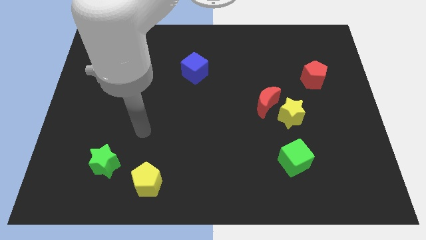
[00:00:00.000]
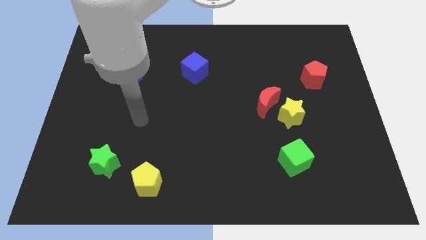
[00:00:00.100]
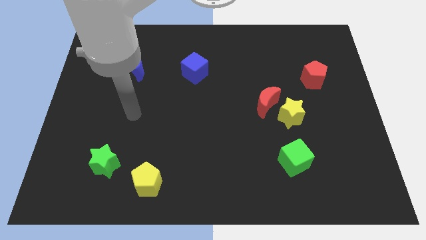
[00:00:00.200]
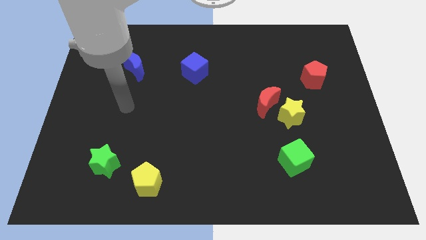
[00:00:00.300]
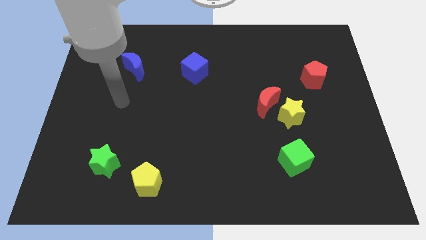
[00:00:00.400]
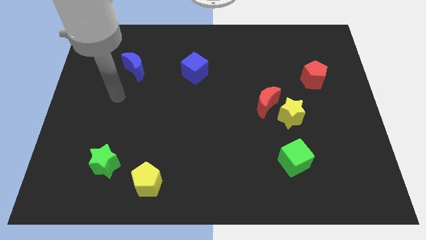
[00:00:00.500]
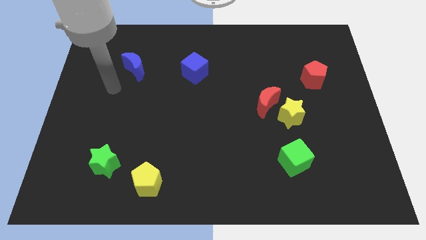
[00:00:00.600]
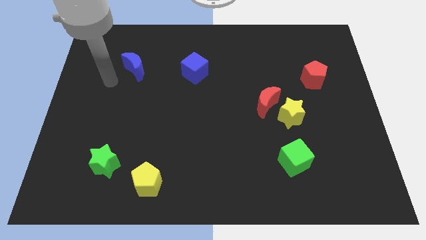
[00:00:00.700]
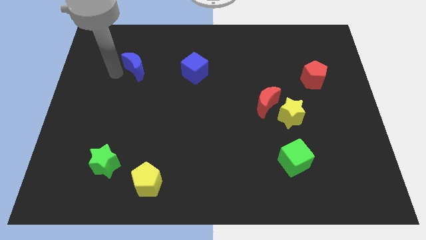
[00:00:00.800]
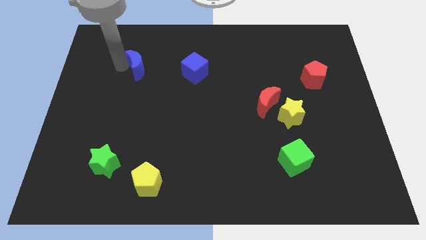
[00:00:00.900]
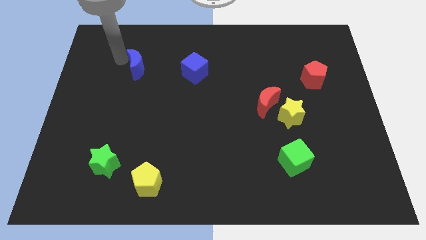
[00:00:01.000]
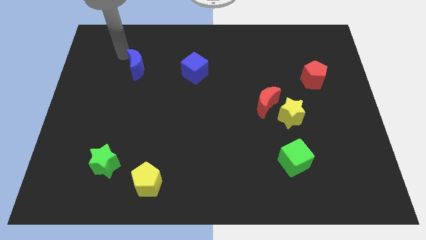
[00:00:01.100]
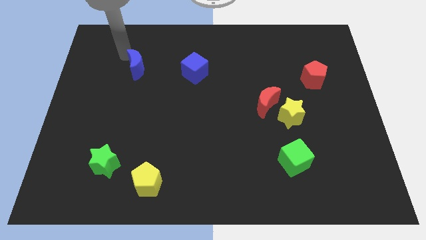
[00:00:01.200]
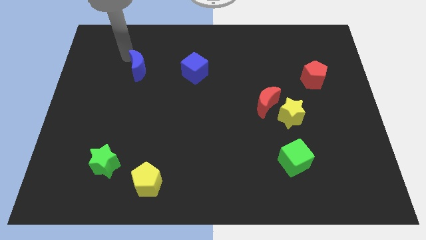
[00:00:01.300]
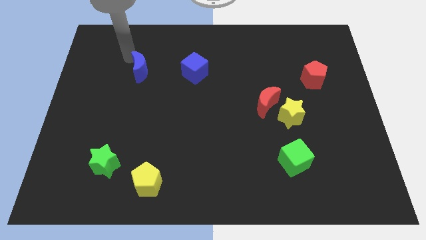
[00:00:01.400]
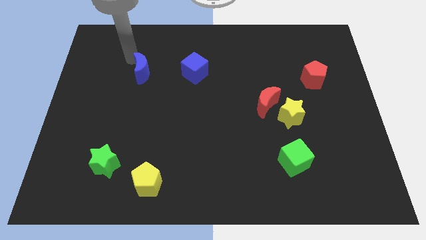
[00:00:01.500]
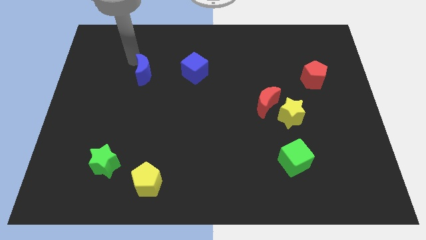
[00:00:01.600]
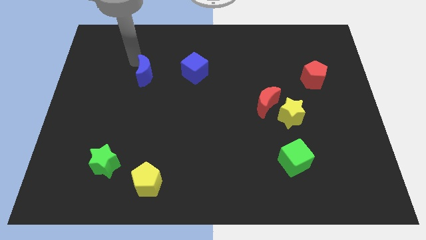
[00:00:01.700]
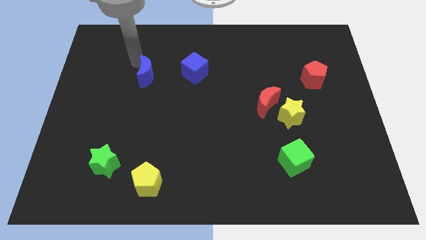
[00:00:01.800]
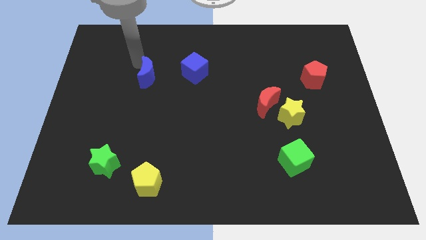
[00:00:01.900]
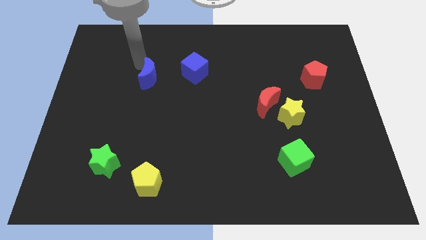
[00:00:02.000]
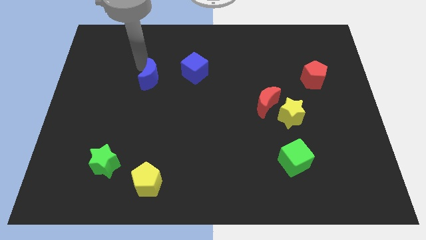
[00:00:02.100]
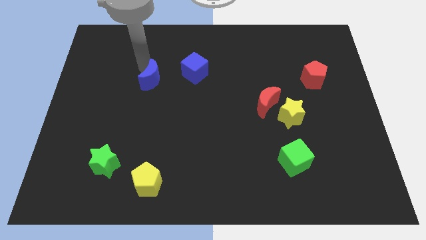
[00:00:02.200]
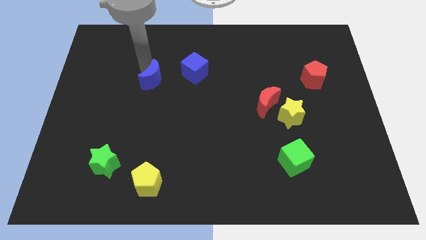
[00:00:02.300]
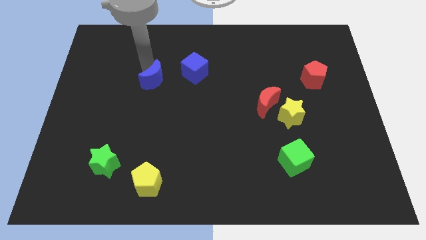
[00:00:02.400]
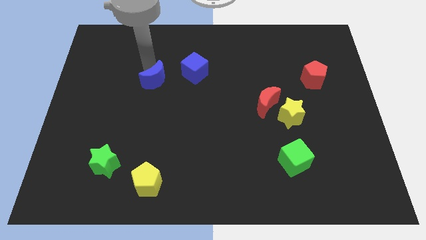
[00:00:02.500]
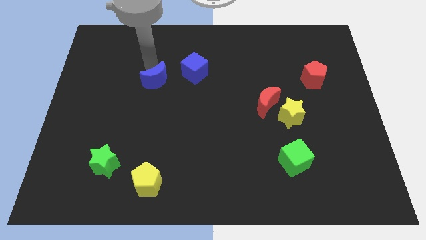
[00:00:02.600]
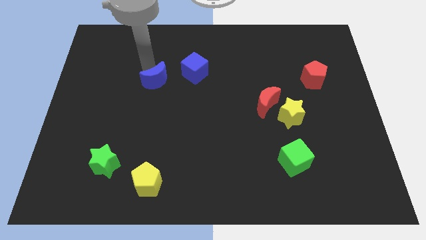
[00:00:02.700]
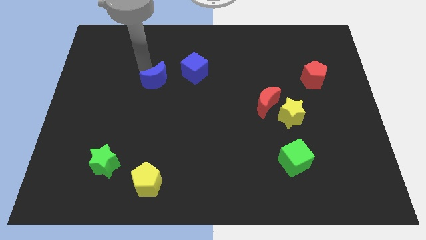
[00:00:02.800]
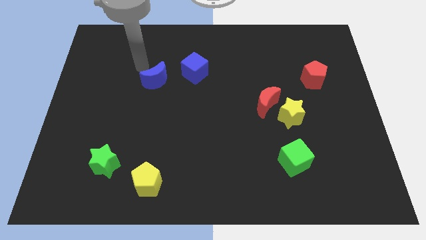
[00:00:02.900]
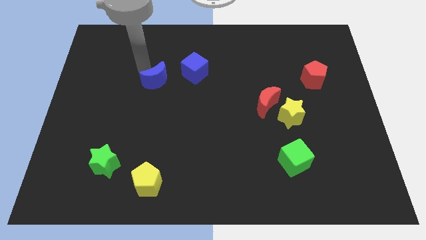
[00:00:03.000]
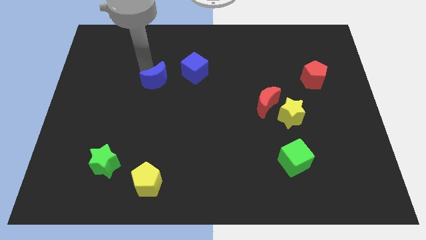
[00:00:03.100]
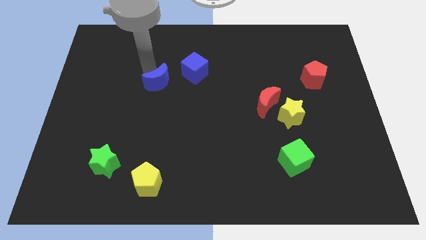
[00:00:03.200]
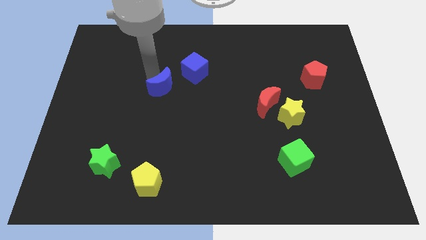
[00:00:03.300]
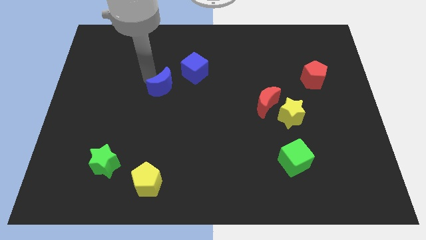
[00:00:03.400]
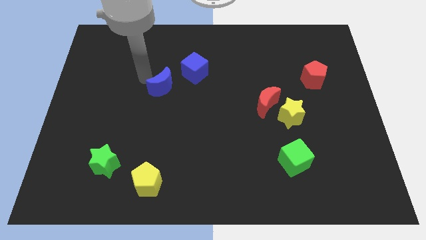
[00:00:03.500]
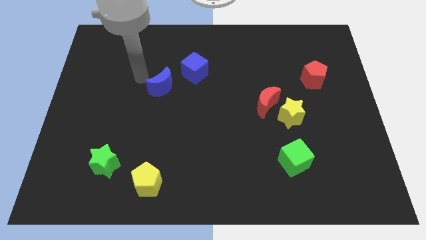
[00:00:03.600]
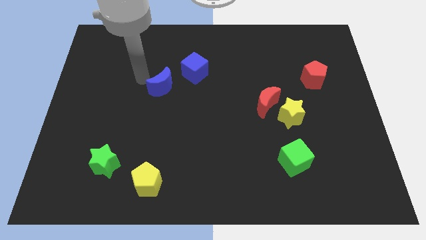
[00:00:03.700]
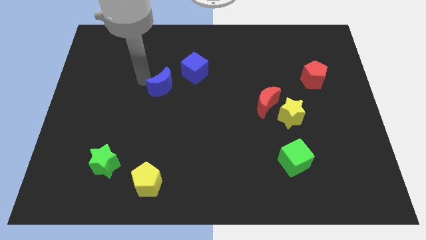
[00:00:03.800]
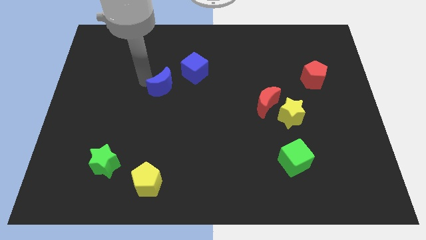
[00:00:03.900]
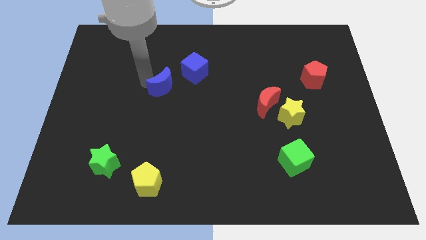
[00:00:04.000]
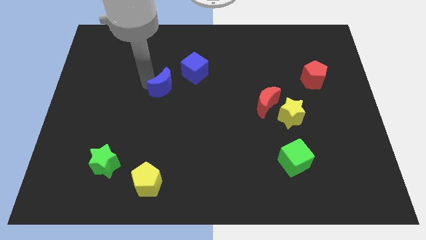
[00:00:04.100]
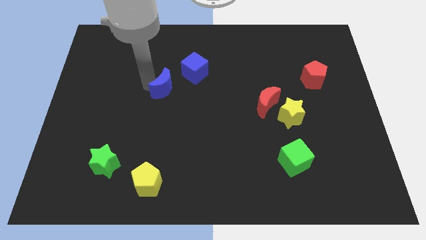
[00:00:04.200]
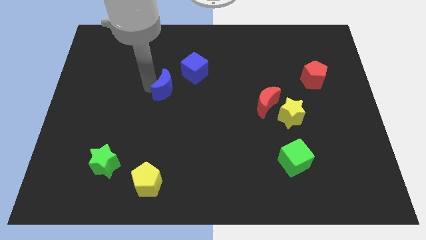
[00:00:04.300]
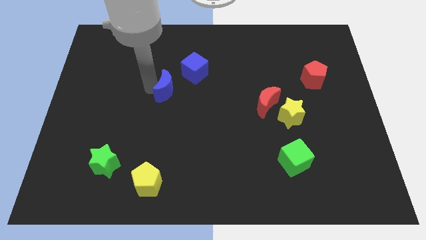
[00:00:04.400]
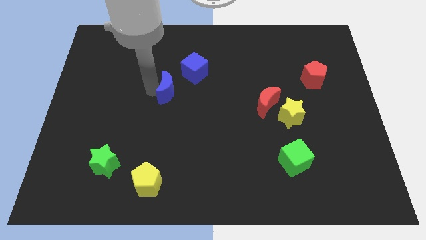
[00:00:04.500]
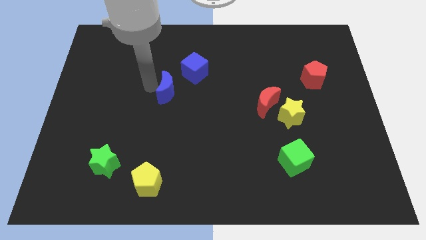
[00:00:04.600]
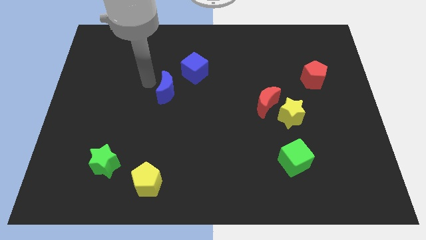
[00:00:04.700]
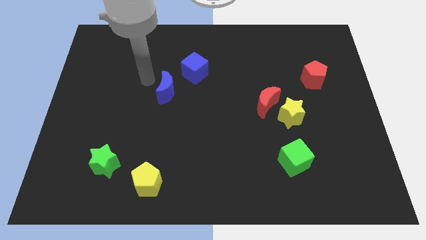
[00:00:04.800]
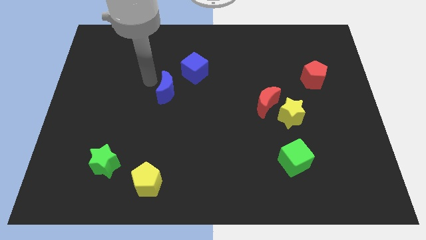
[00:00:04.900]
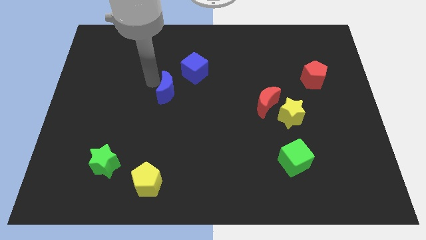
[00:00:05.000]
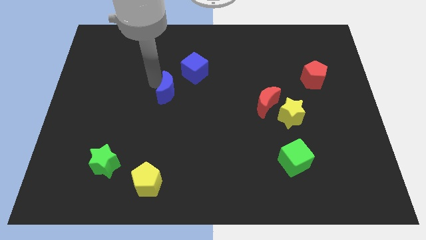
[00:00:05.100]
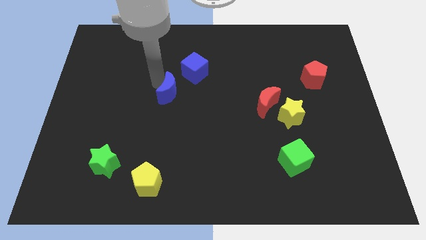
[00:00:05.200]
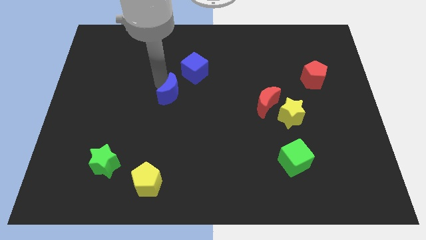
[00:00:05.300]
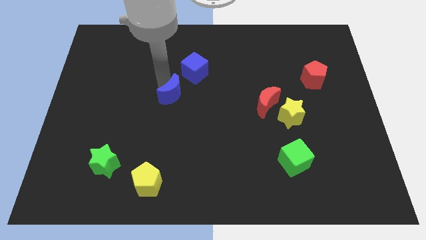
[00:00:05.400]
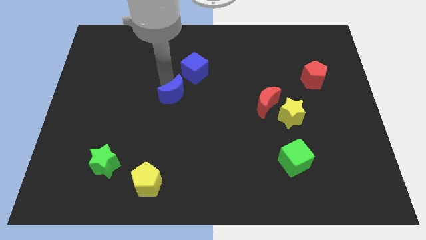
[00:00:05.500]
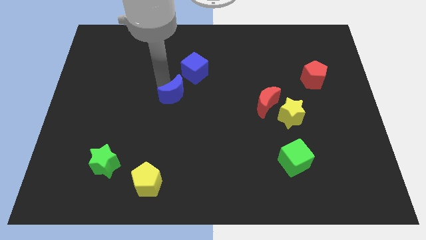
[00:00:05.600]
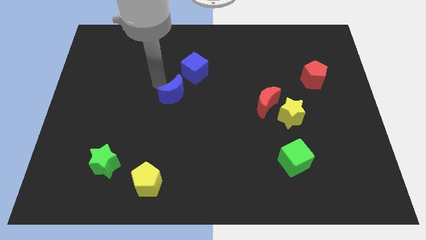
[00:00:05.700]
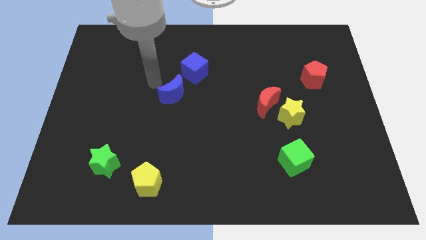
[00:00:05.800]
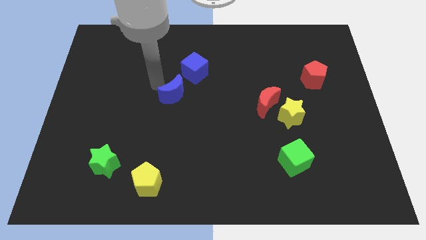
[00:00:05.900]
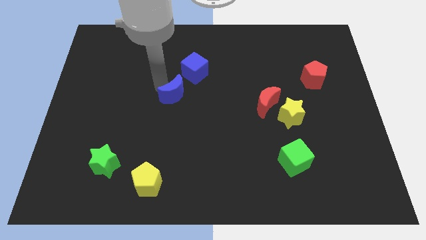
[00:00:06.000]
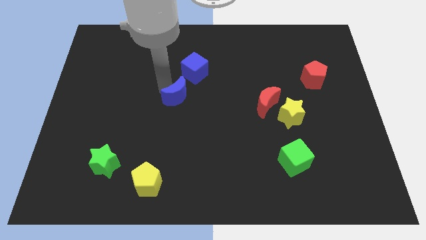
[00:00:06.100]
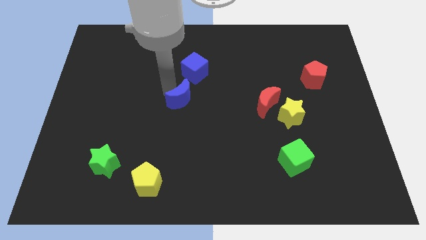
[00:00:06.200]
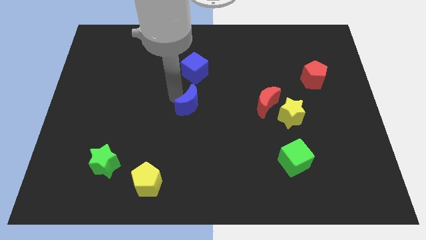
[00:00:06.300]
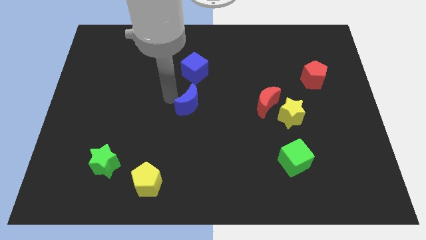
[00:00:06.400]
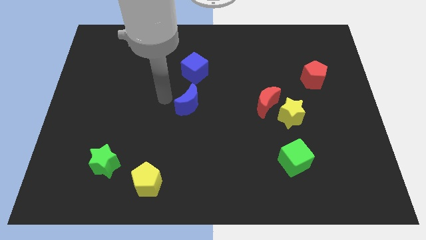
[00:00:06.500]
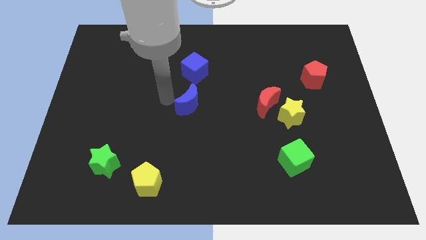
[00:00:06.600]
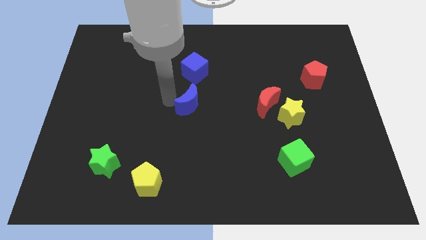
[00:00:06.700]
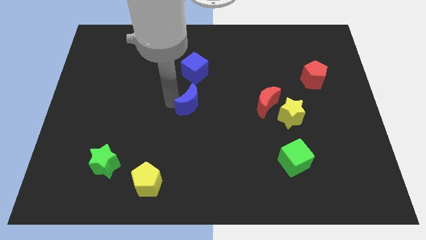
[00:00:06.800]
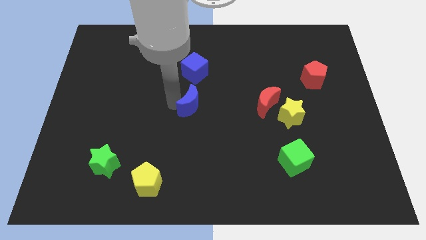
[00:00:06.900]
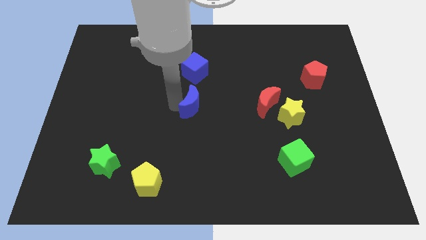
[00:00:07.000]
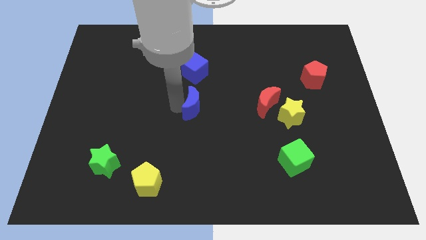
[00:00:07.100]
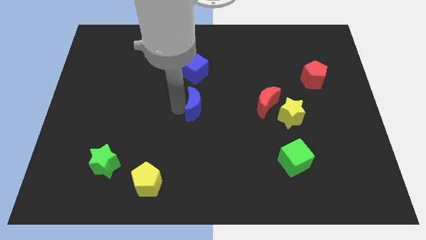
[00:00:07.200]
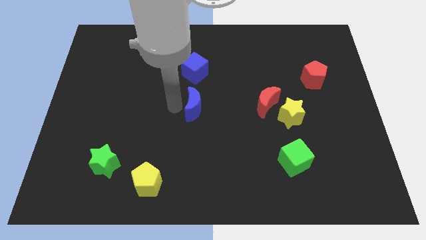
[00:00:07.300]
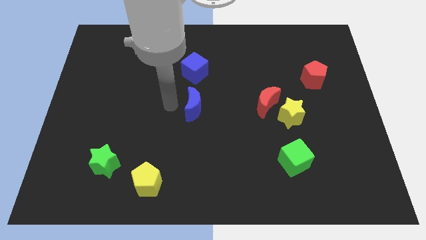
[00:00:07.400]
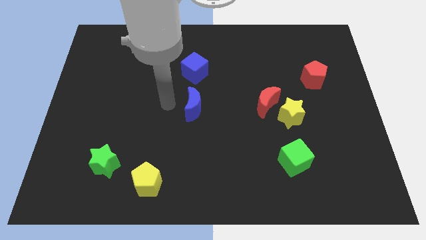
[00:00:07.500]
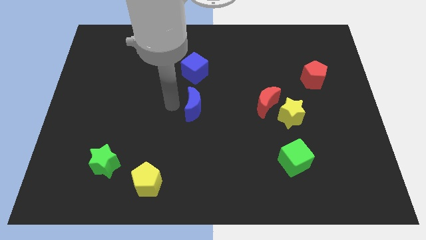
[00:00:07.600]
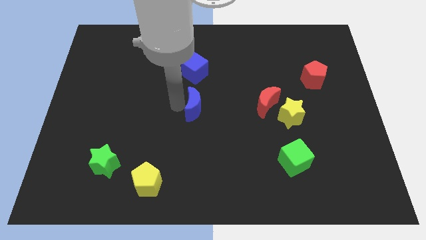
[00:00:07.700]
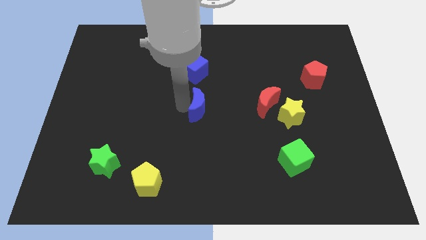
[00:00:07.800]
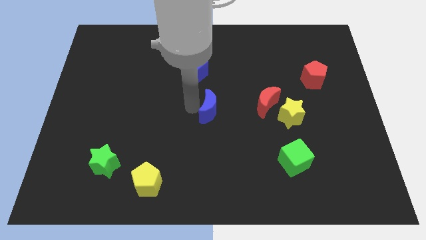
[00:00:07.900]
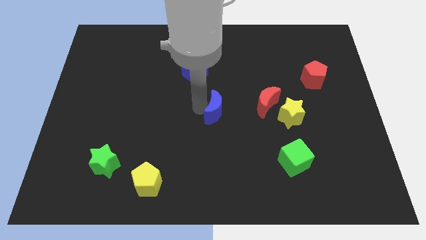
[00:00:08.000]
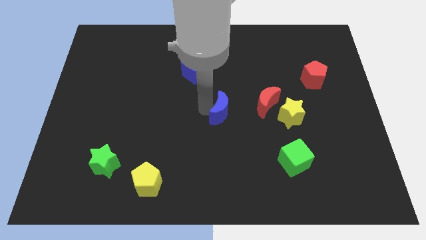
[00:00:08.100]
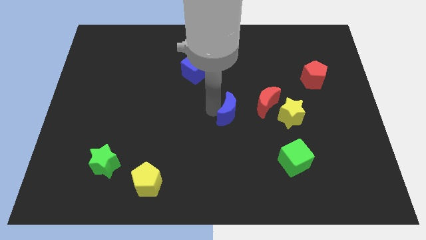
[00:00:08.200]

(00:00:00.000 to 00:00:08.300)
slide the blue moon to the bottom left side of the red moon
